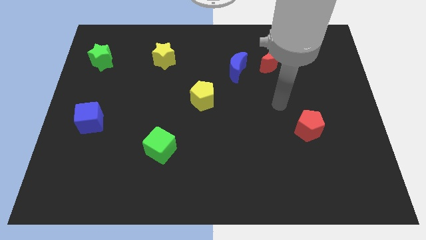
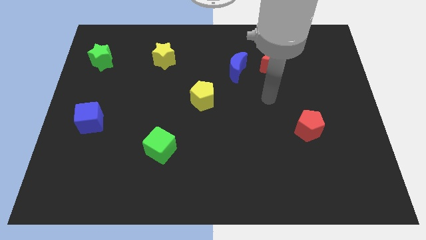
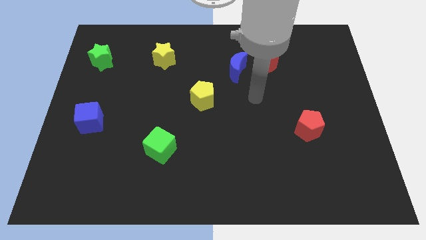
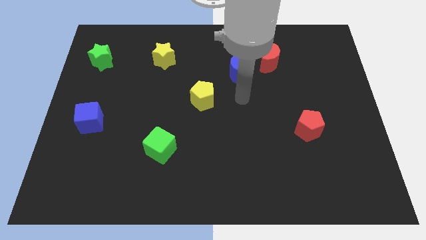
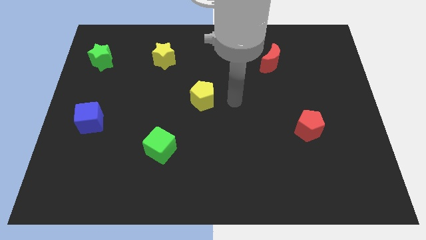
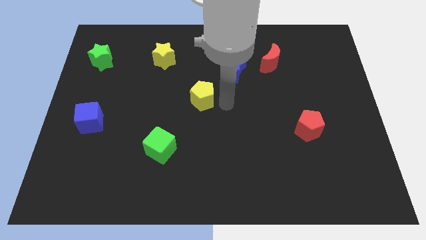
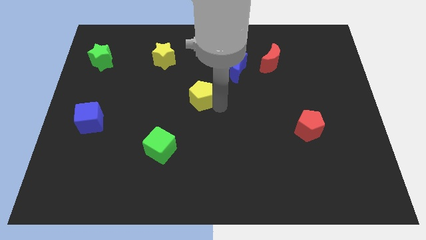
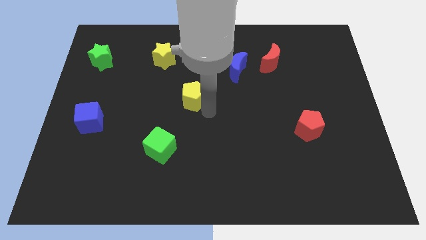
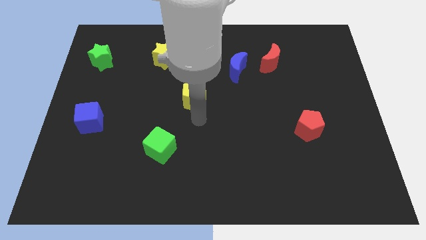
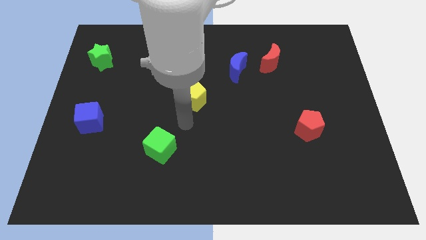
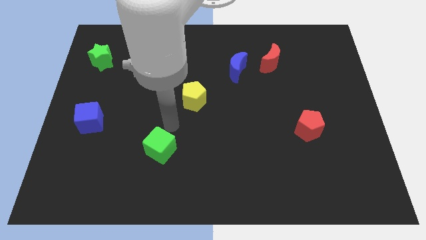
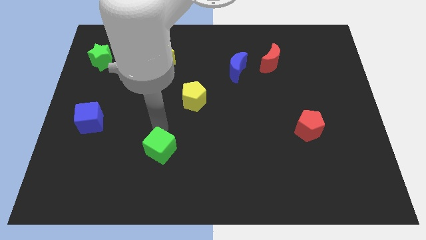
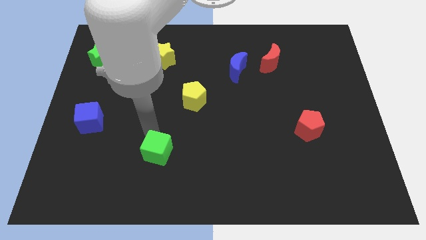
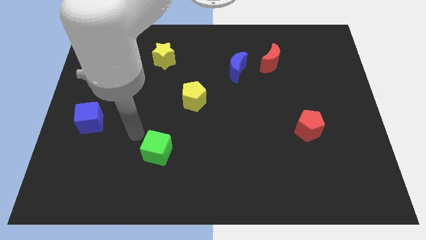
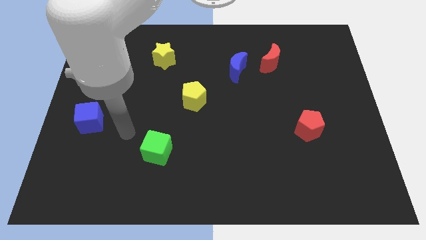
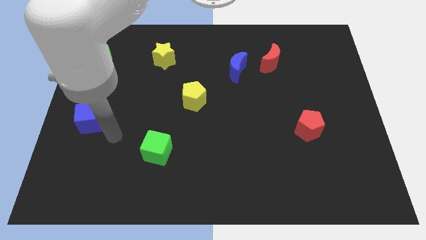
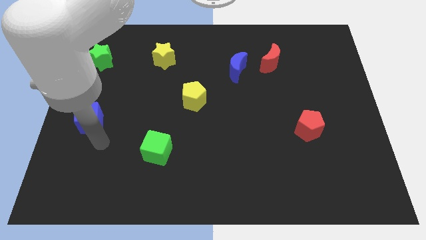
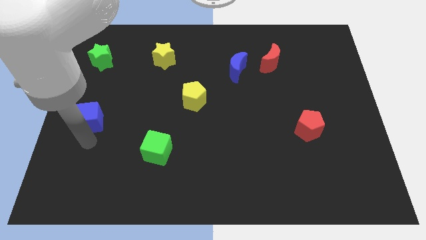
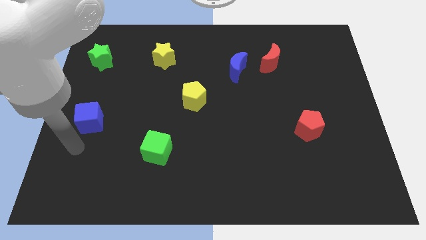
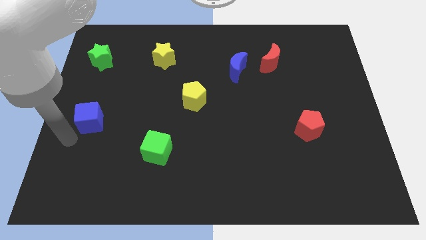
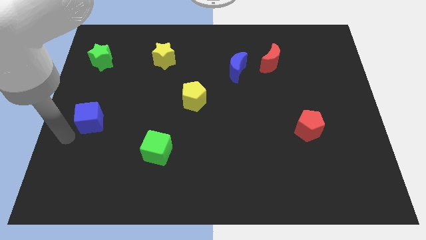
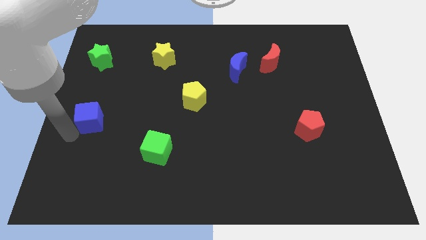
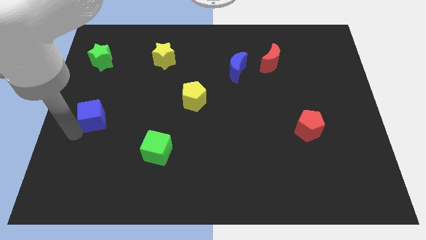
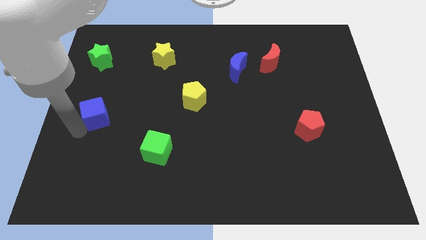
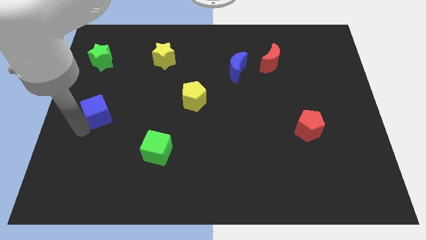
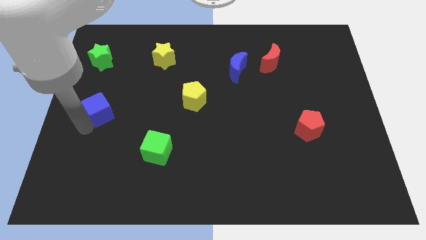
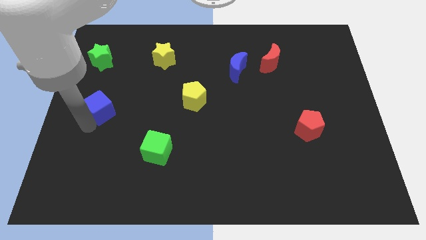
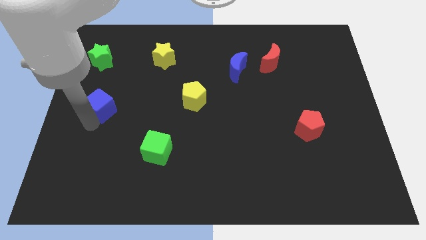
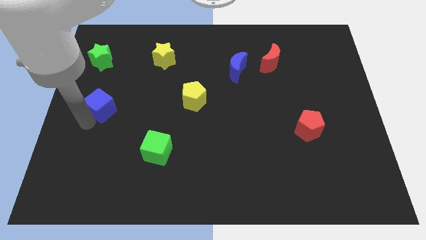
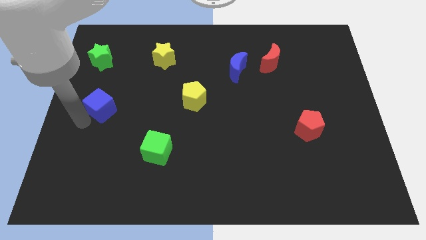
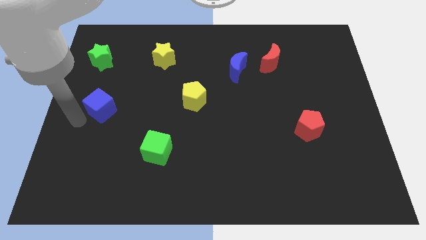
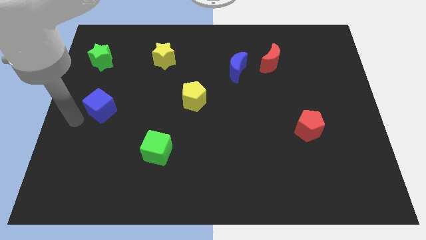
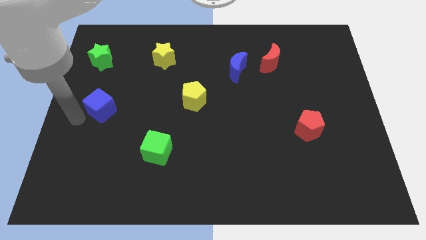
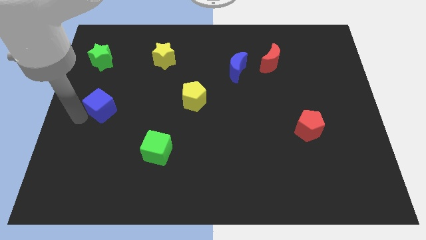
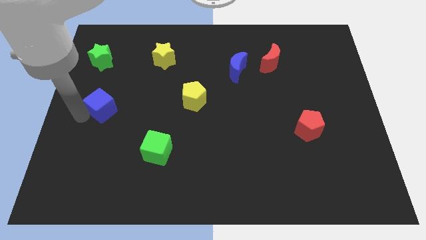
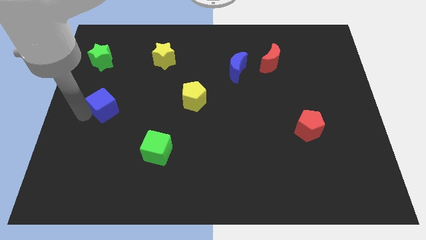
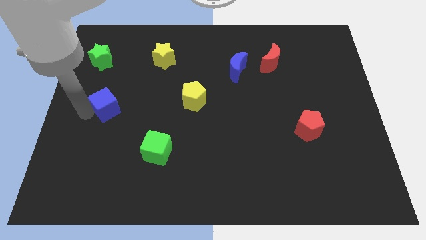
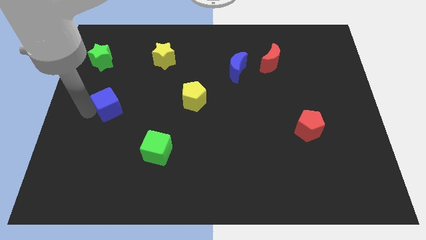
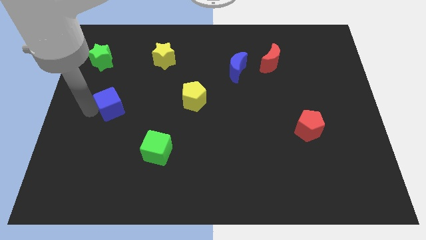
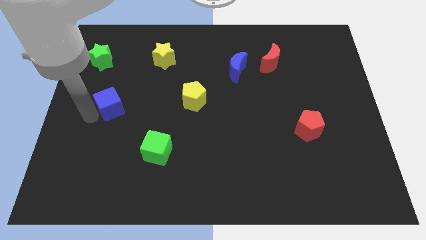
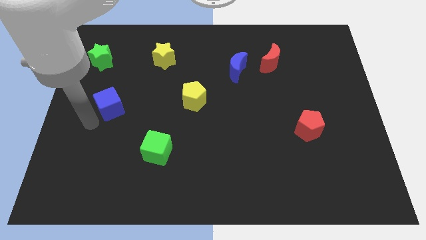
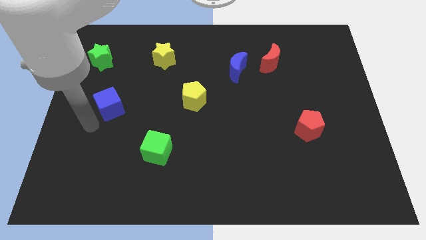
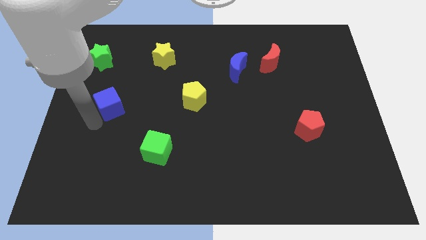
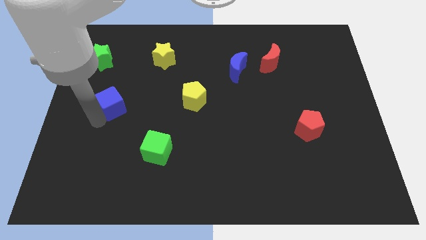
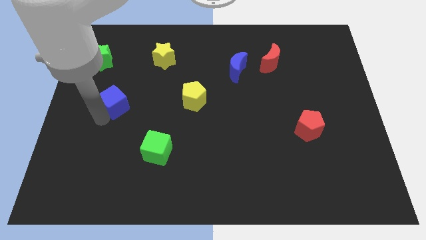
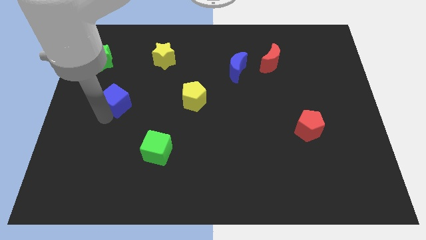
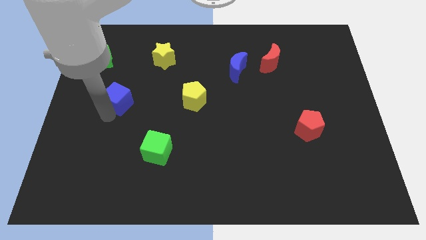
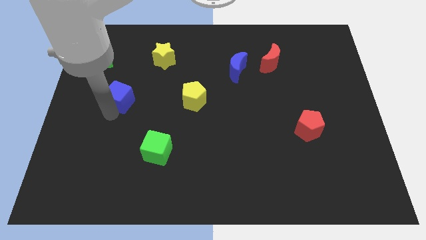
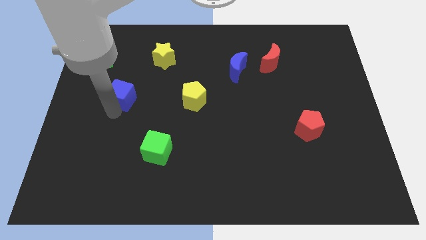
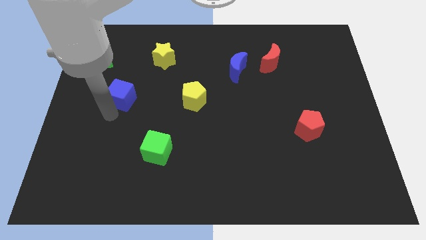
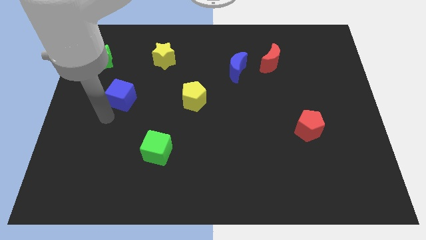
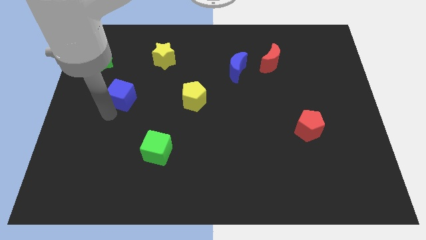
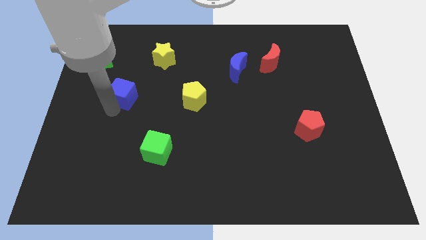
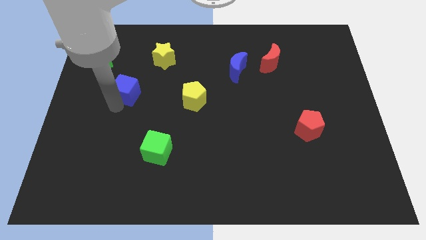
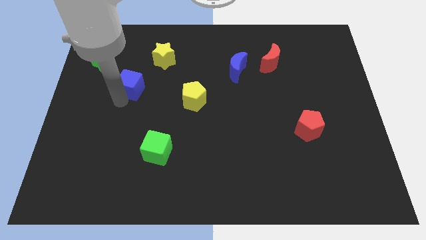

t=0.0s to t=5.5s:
move the blue cube to the bottom left of the yellow star

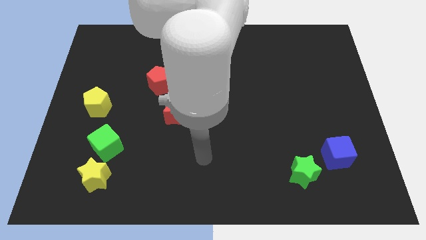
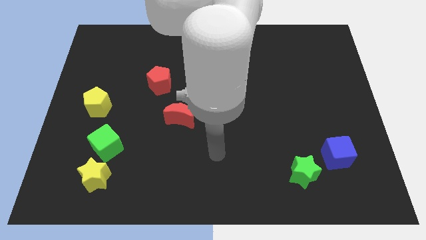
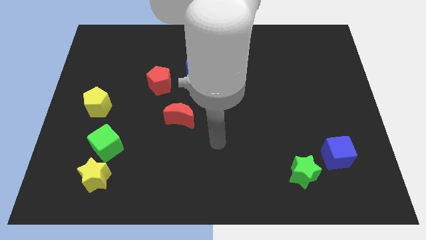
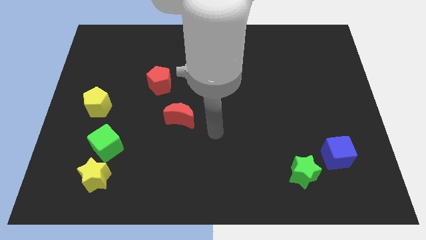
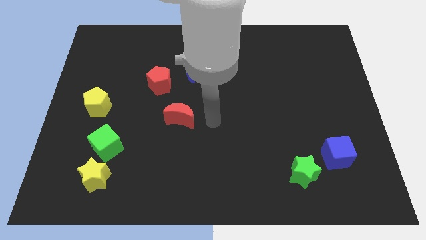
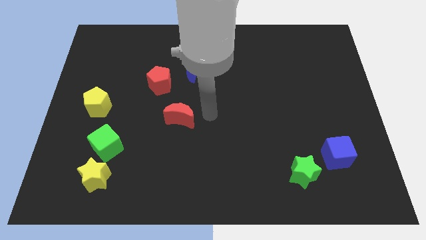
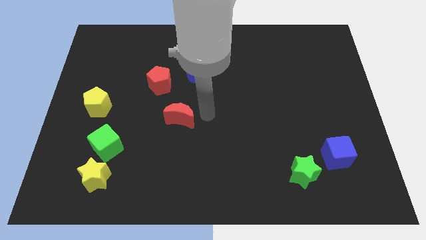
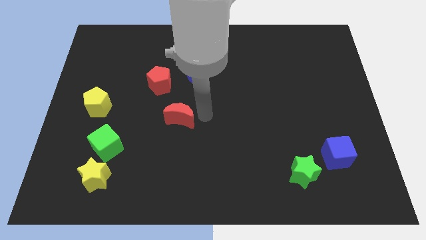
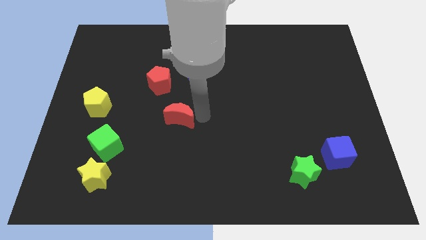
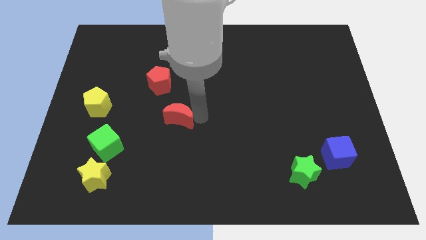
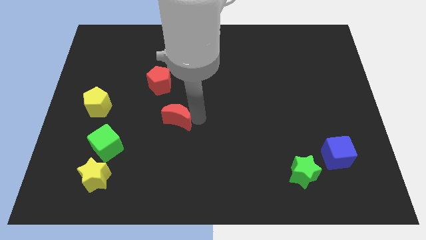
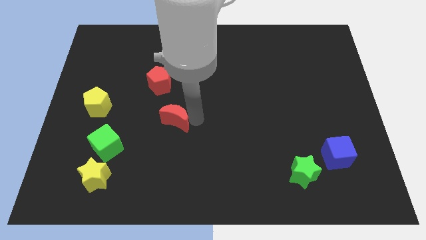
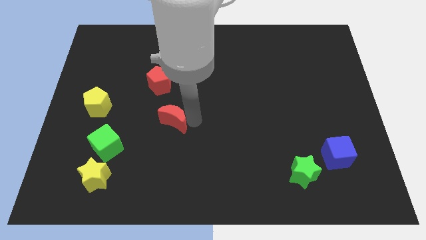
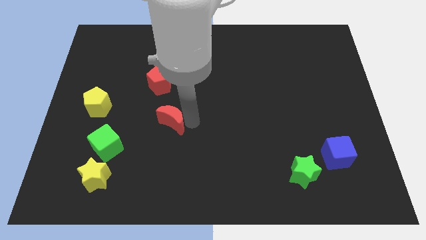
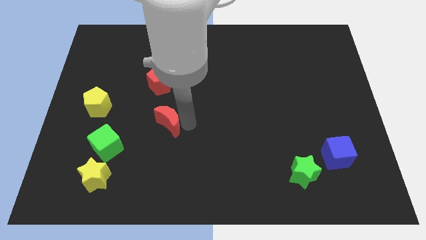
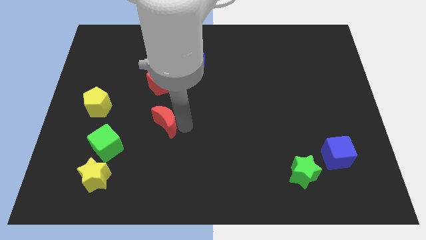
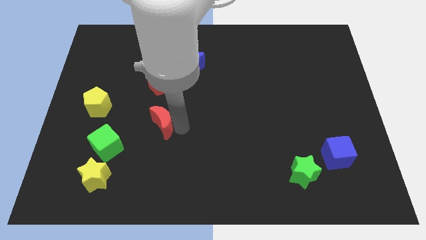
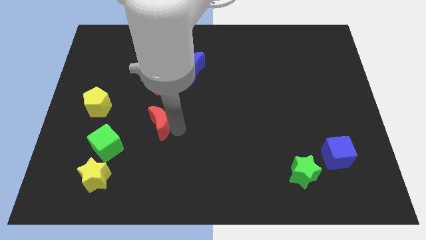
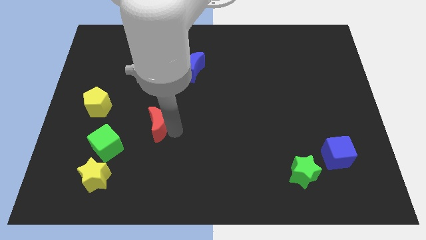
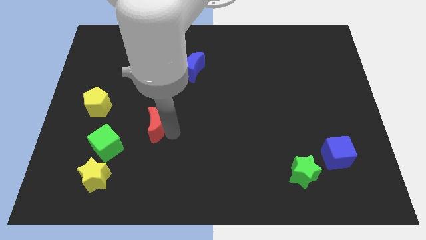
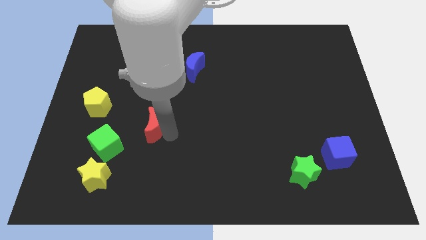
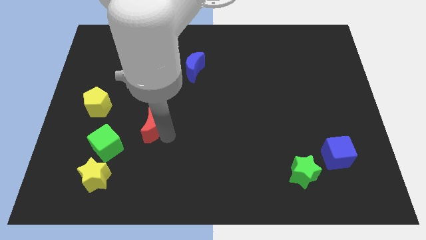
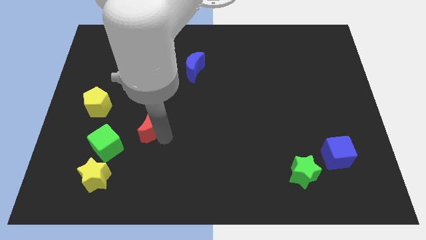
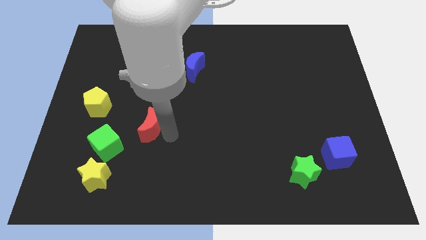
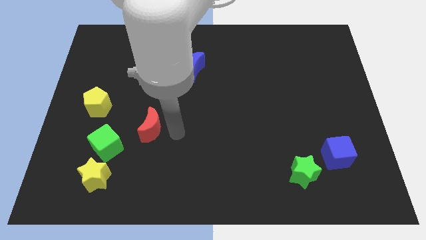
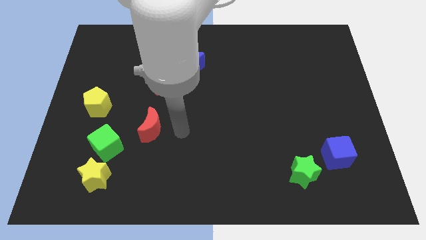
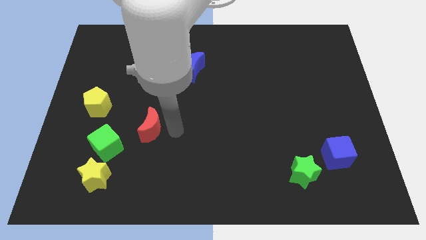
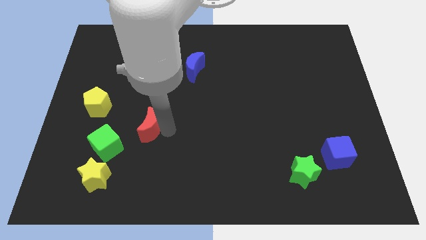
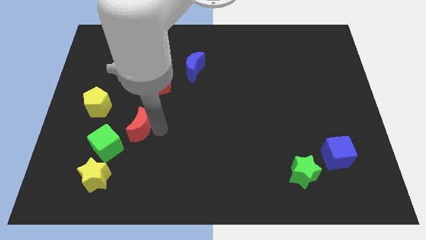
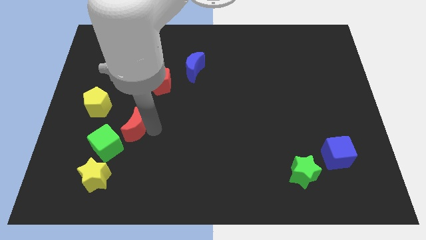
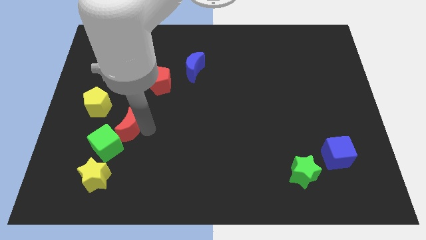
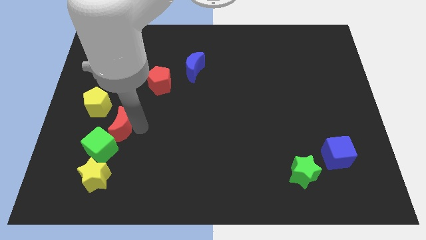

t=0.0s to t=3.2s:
put the red moon above the yellow star
